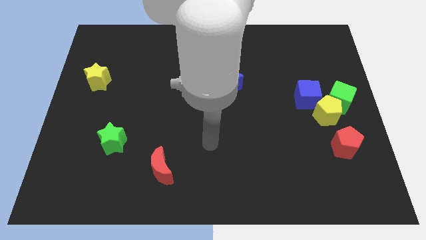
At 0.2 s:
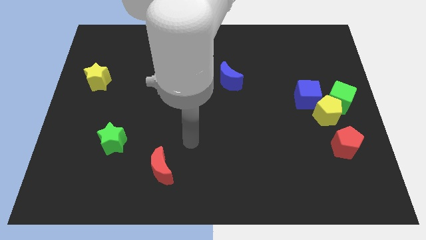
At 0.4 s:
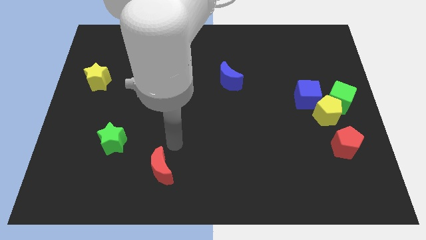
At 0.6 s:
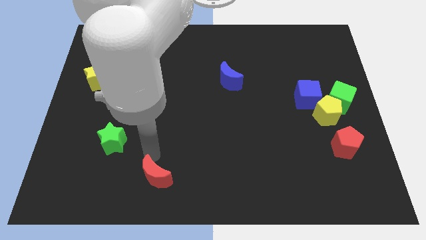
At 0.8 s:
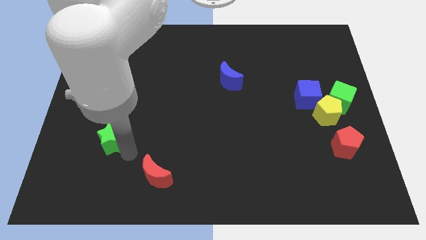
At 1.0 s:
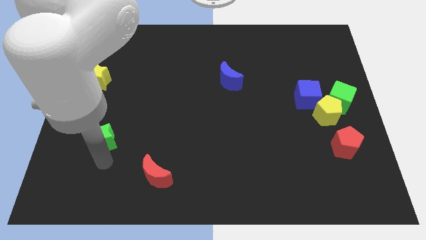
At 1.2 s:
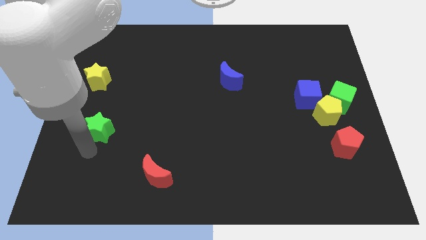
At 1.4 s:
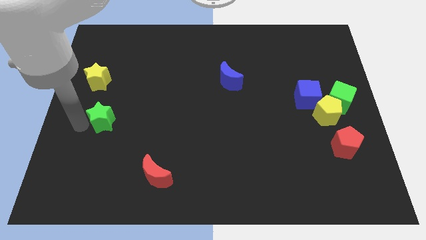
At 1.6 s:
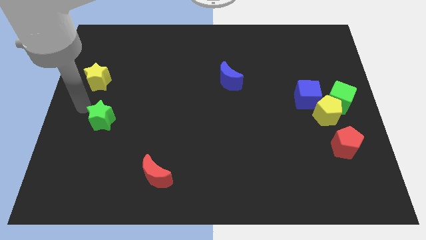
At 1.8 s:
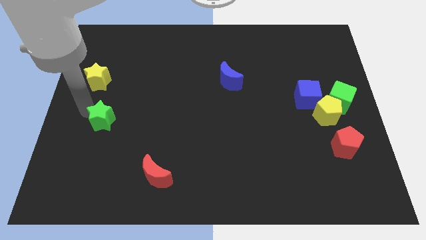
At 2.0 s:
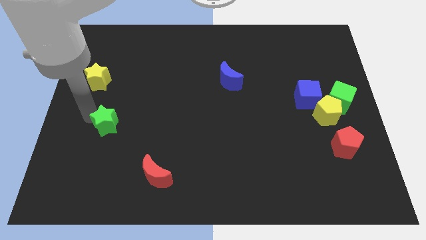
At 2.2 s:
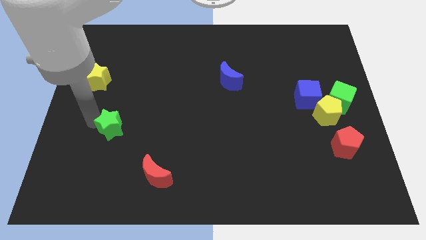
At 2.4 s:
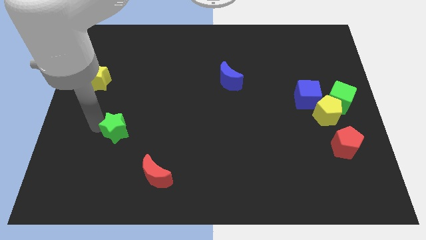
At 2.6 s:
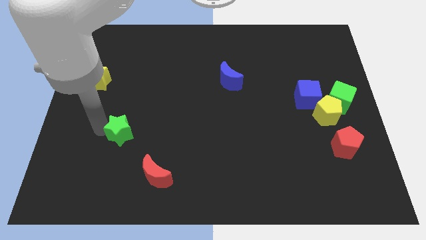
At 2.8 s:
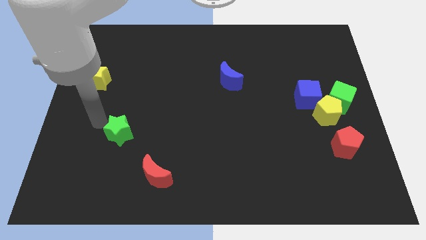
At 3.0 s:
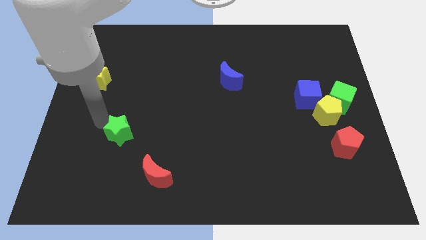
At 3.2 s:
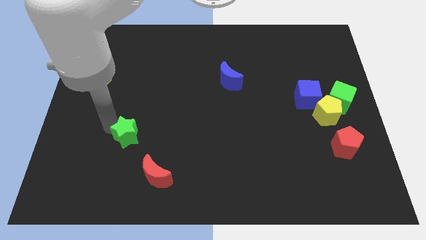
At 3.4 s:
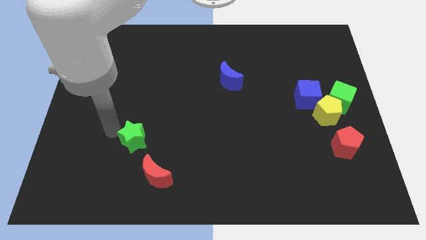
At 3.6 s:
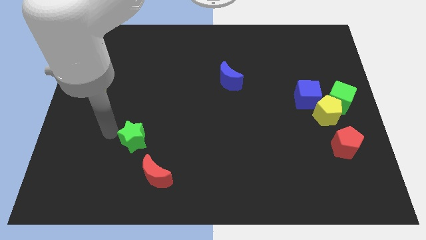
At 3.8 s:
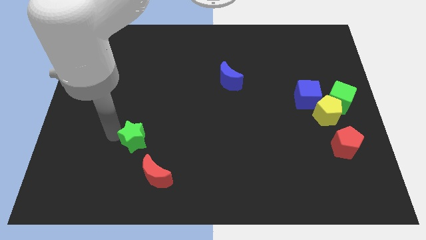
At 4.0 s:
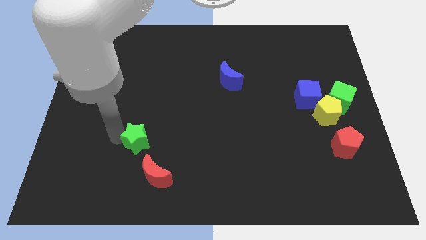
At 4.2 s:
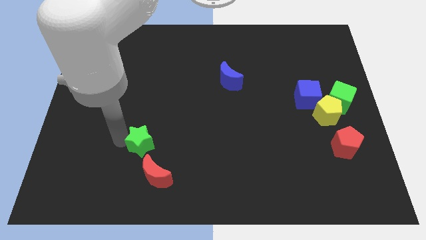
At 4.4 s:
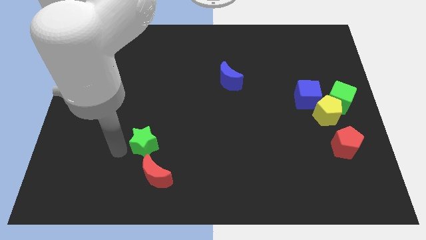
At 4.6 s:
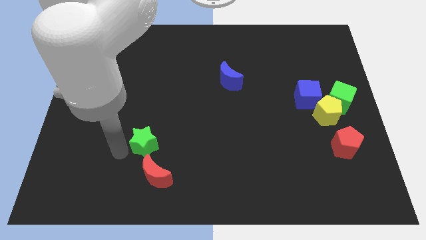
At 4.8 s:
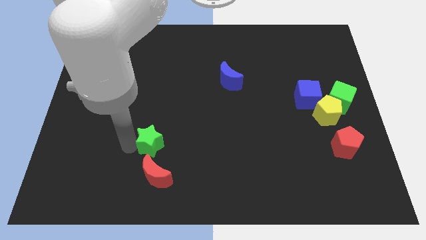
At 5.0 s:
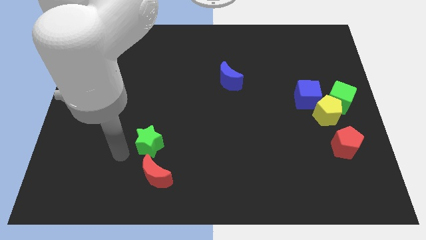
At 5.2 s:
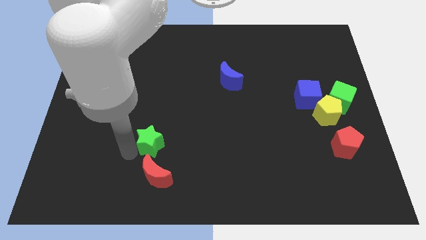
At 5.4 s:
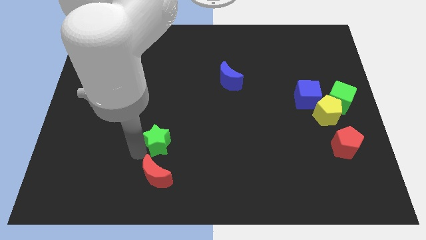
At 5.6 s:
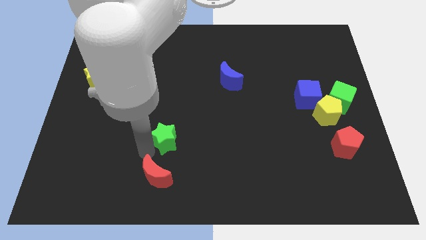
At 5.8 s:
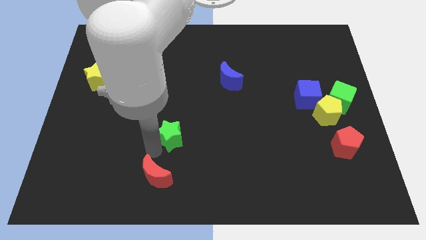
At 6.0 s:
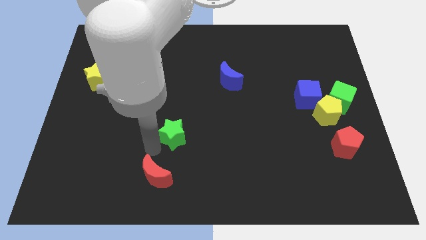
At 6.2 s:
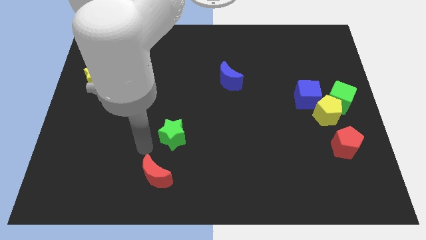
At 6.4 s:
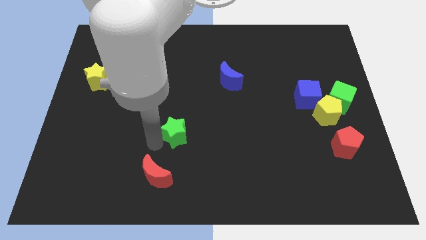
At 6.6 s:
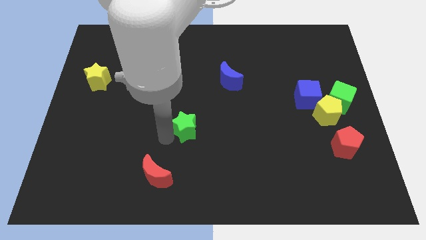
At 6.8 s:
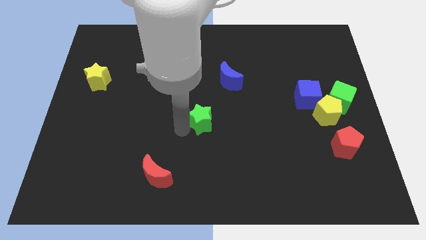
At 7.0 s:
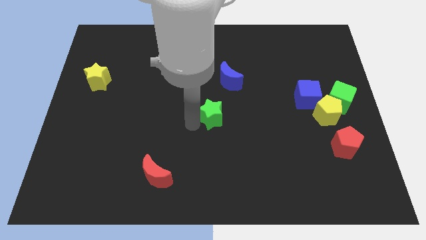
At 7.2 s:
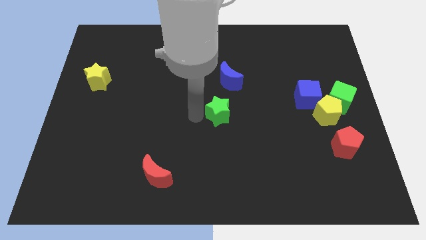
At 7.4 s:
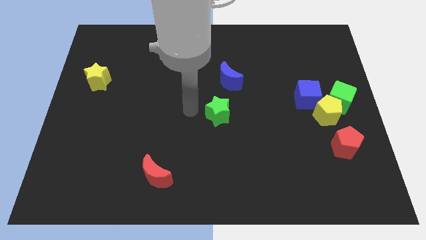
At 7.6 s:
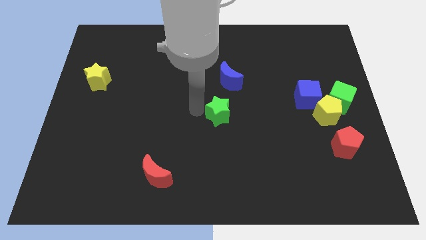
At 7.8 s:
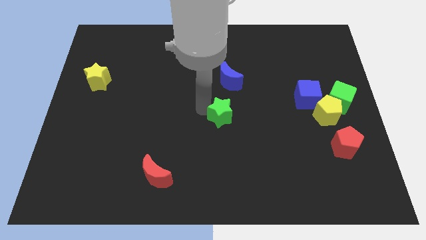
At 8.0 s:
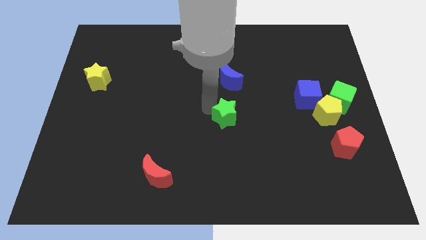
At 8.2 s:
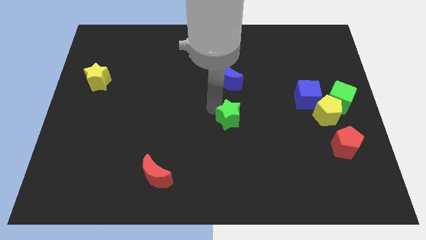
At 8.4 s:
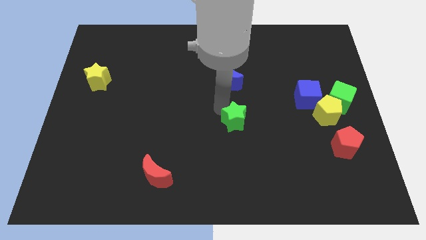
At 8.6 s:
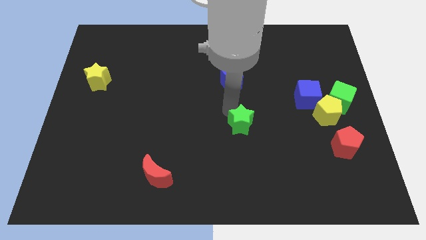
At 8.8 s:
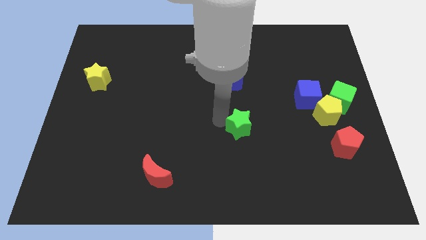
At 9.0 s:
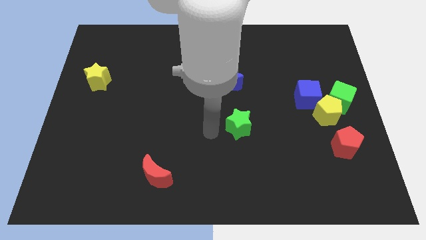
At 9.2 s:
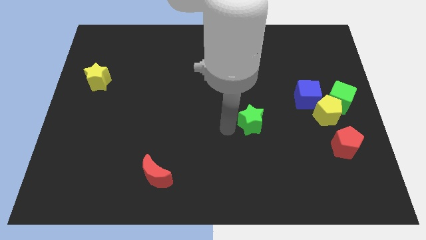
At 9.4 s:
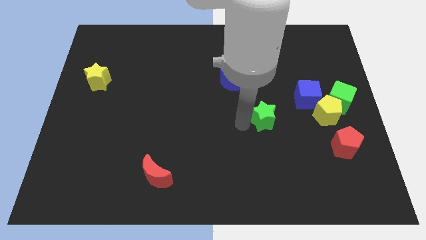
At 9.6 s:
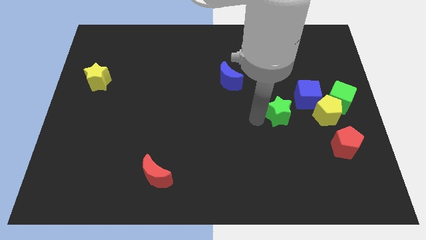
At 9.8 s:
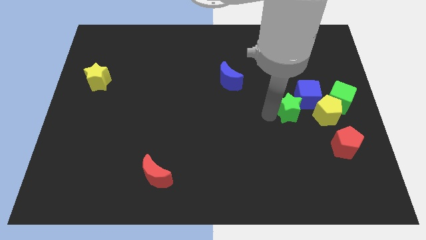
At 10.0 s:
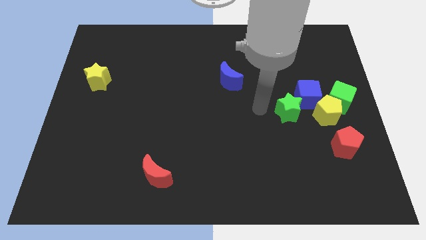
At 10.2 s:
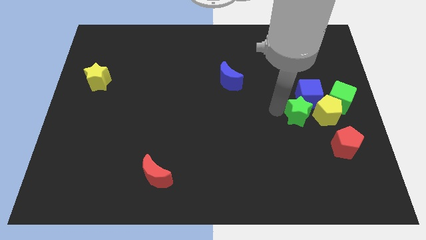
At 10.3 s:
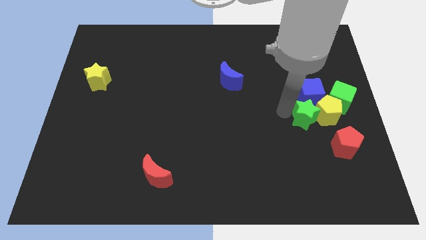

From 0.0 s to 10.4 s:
slide the green star towards the yellow pentagon

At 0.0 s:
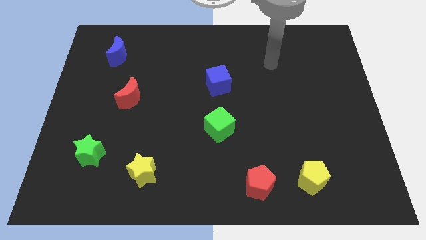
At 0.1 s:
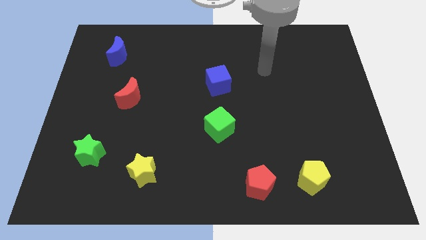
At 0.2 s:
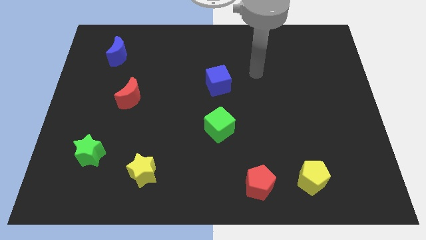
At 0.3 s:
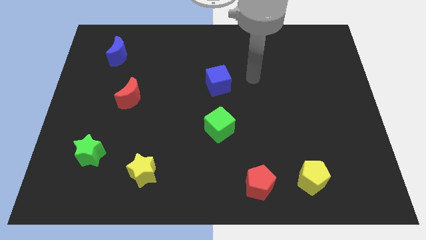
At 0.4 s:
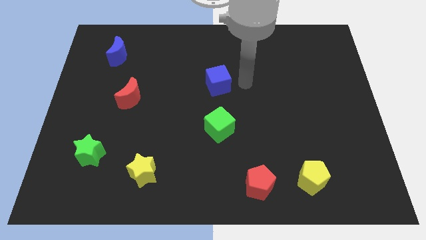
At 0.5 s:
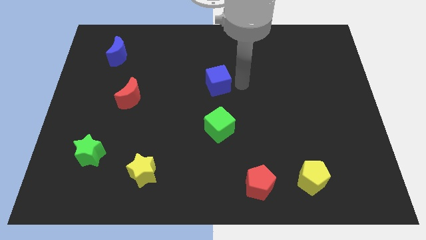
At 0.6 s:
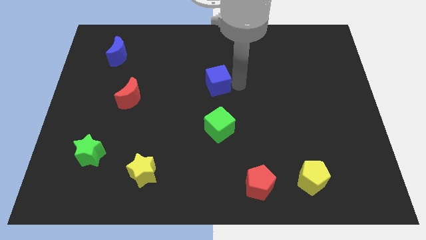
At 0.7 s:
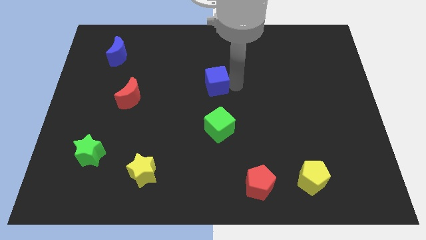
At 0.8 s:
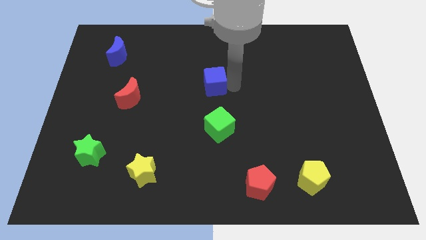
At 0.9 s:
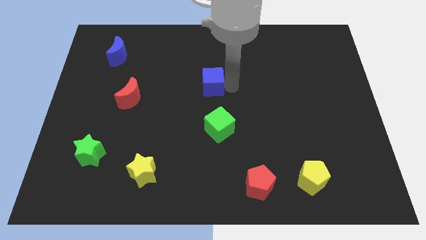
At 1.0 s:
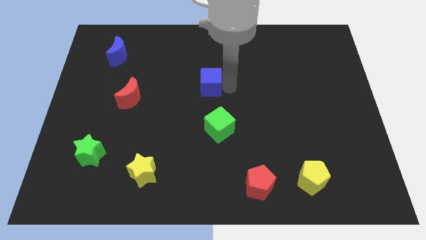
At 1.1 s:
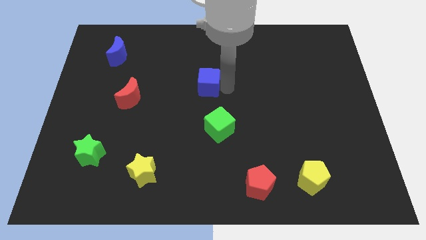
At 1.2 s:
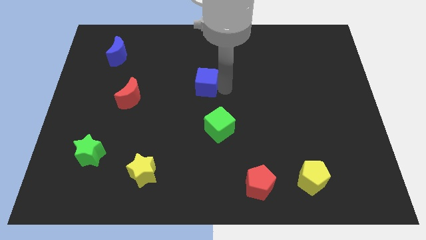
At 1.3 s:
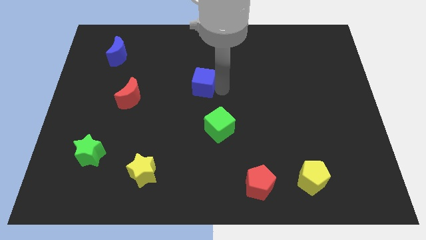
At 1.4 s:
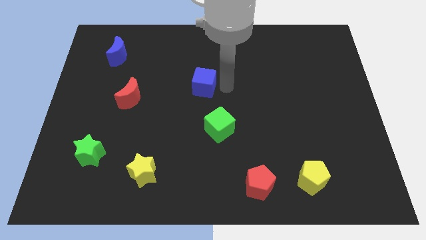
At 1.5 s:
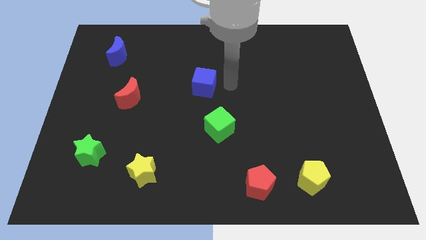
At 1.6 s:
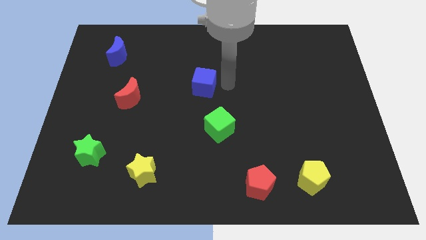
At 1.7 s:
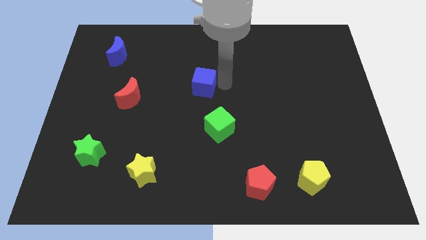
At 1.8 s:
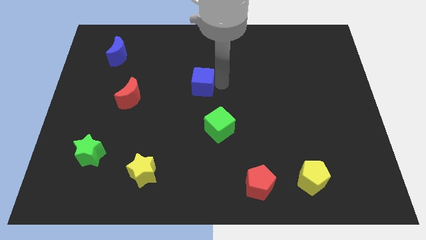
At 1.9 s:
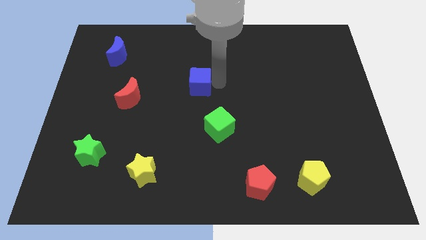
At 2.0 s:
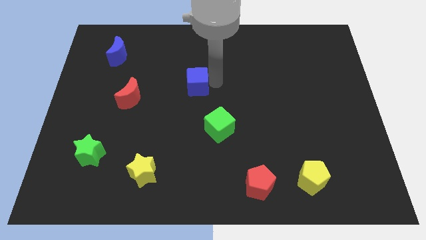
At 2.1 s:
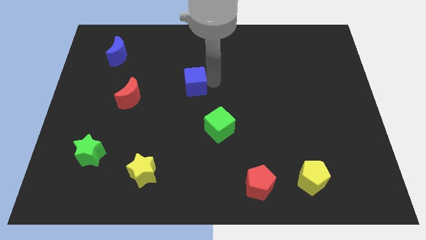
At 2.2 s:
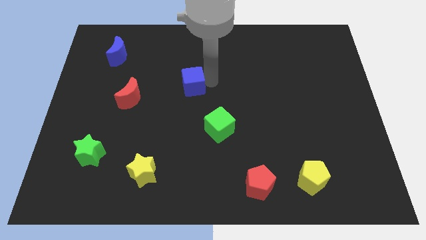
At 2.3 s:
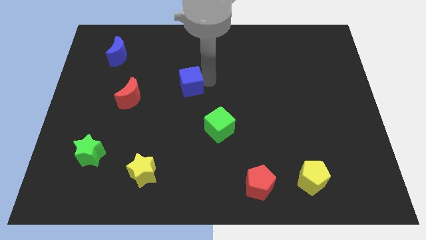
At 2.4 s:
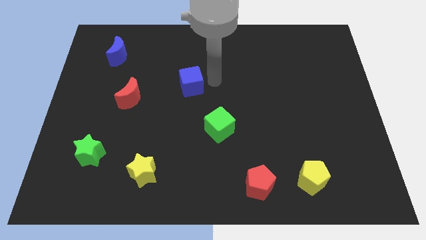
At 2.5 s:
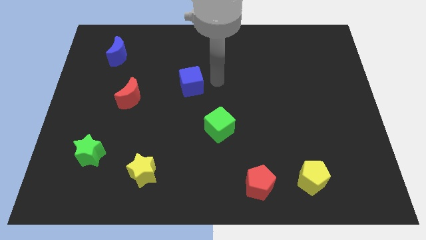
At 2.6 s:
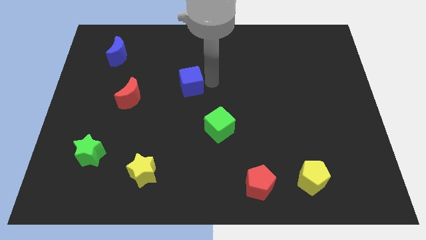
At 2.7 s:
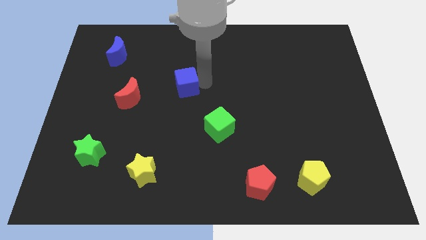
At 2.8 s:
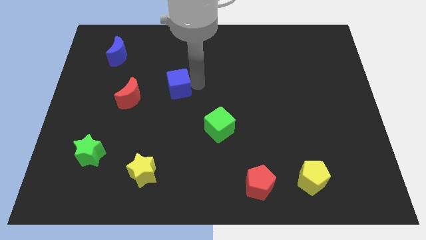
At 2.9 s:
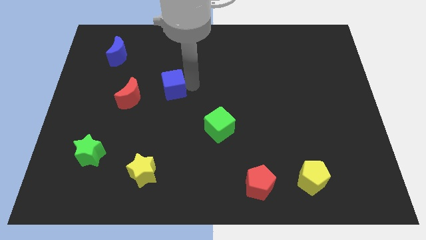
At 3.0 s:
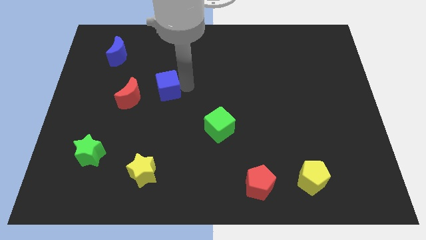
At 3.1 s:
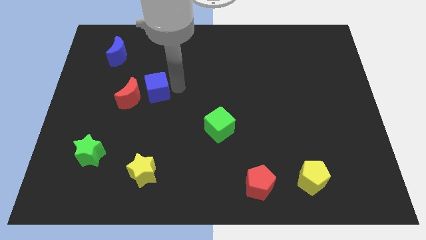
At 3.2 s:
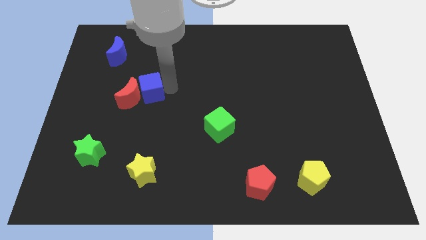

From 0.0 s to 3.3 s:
slide the blue cube towards the red moon
